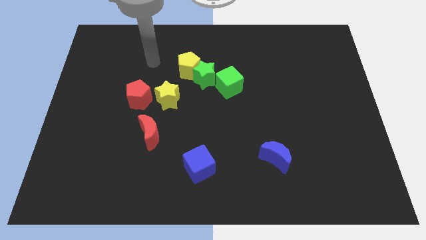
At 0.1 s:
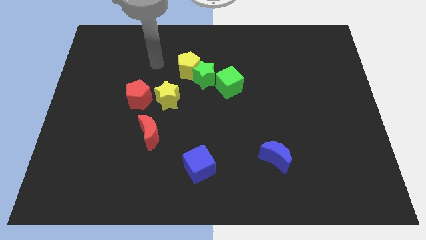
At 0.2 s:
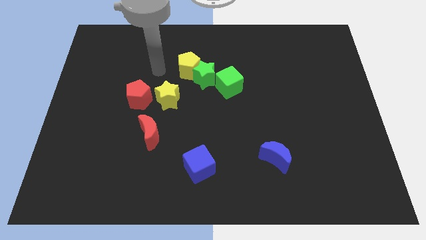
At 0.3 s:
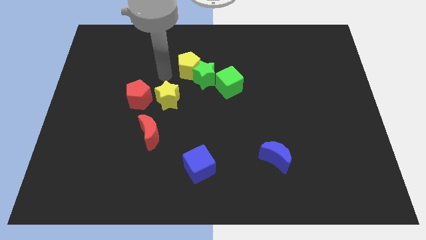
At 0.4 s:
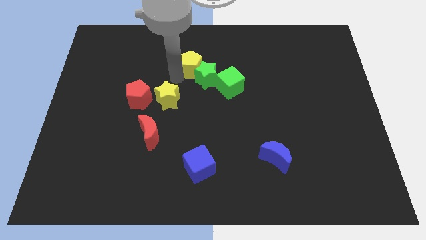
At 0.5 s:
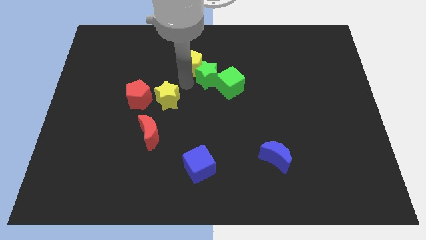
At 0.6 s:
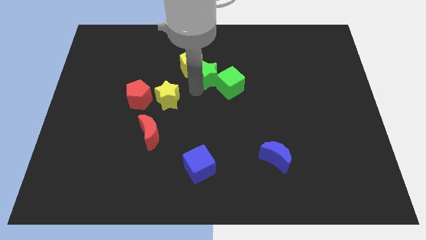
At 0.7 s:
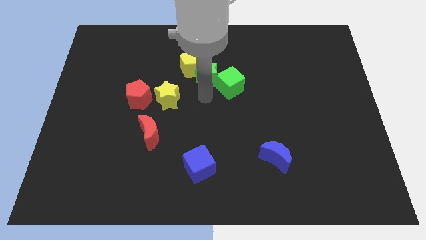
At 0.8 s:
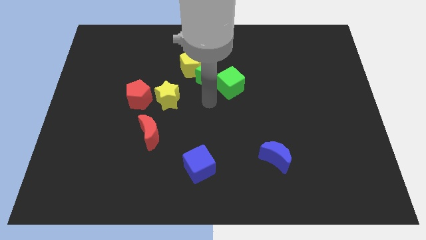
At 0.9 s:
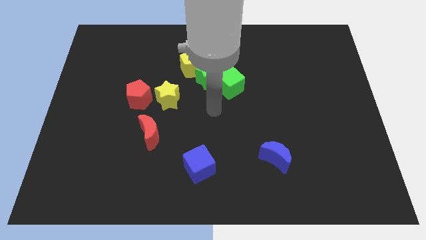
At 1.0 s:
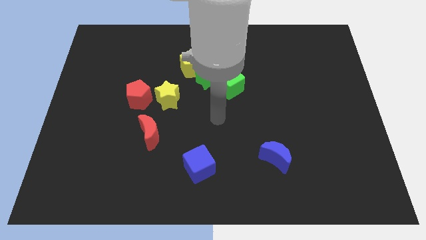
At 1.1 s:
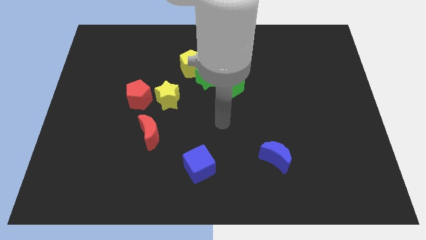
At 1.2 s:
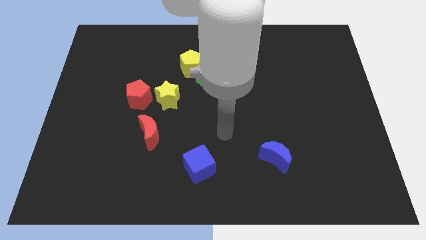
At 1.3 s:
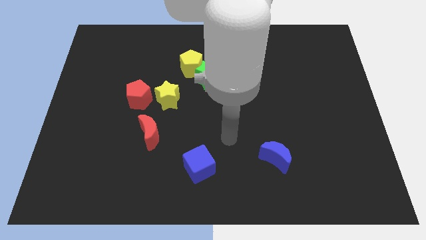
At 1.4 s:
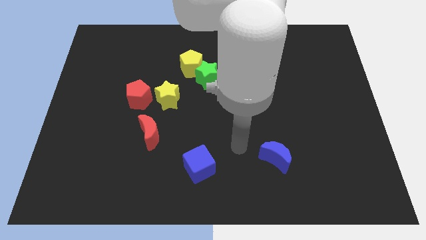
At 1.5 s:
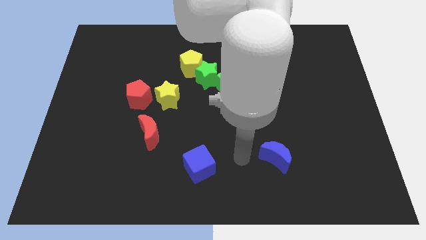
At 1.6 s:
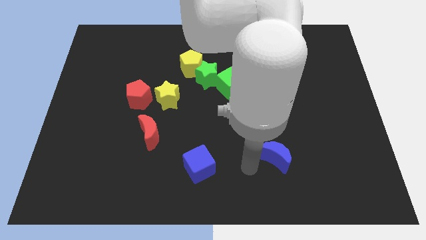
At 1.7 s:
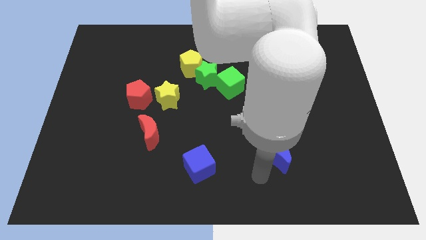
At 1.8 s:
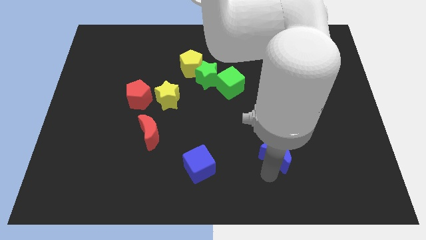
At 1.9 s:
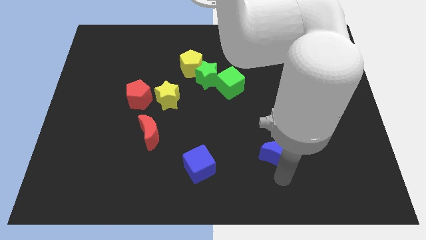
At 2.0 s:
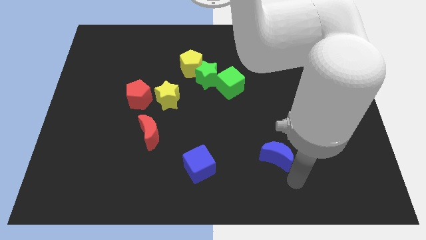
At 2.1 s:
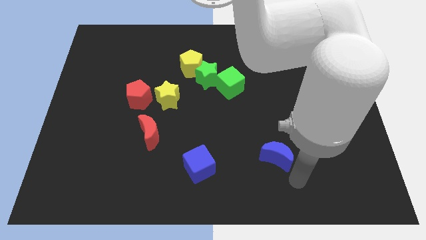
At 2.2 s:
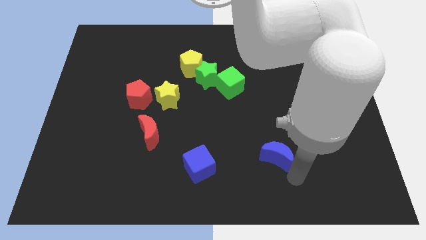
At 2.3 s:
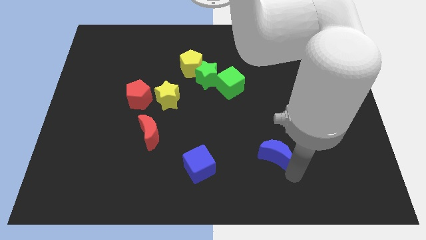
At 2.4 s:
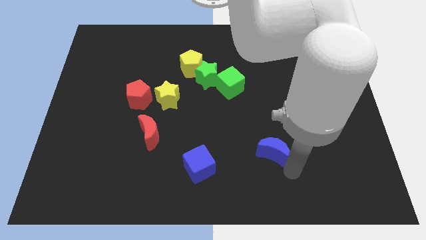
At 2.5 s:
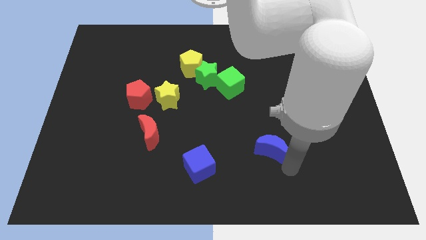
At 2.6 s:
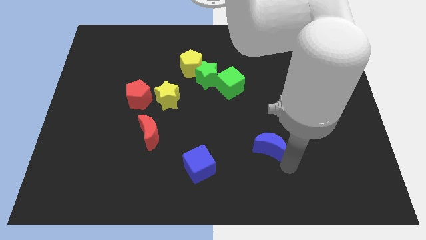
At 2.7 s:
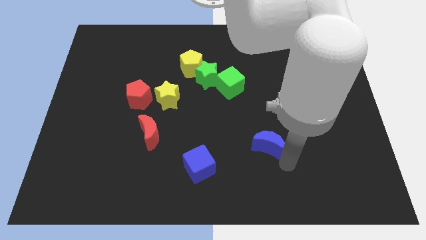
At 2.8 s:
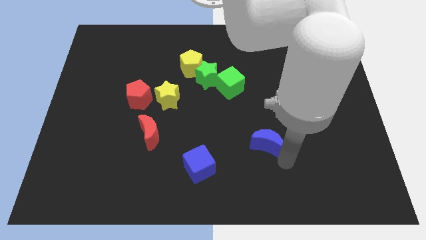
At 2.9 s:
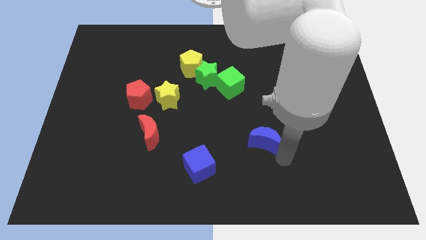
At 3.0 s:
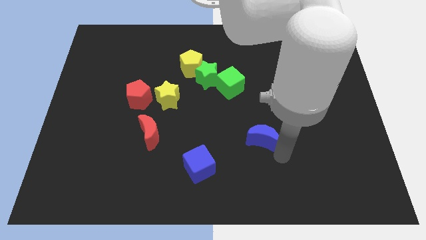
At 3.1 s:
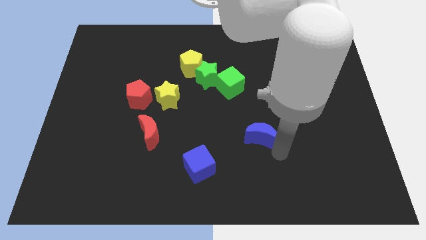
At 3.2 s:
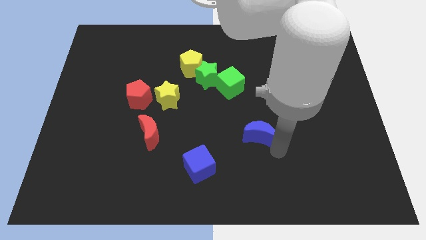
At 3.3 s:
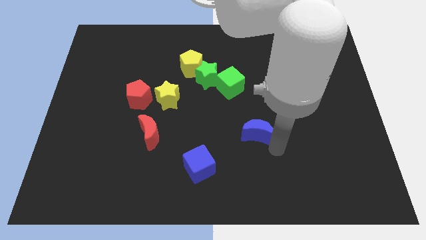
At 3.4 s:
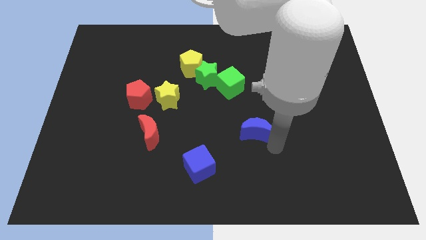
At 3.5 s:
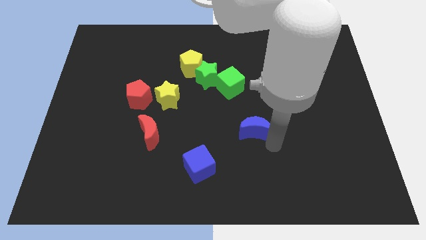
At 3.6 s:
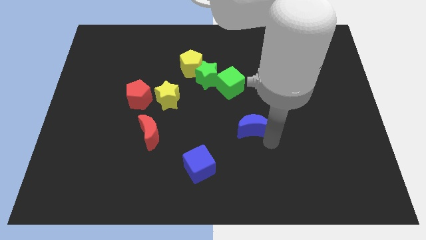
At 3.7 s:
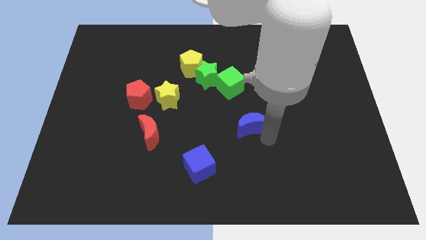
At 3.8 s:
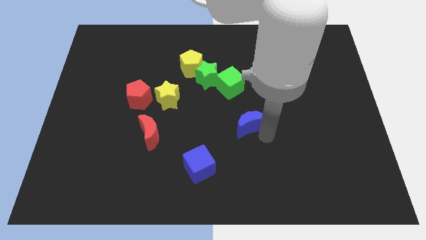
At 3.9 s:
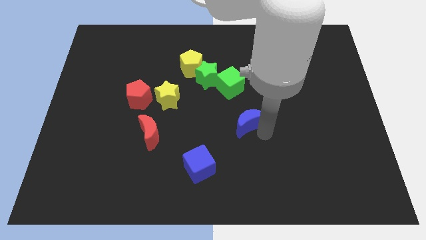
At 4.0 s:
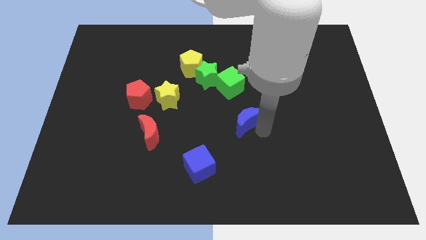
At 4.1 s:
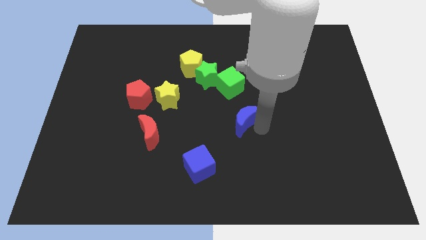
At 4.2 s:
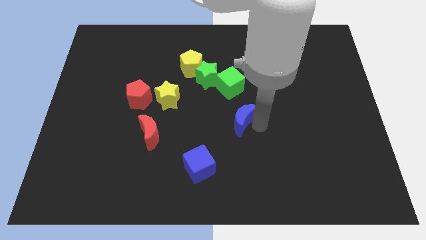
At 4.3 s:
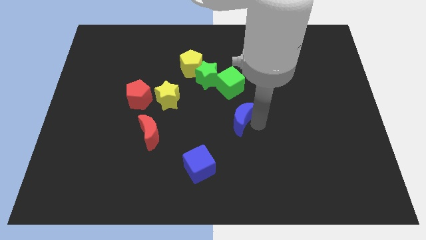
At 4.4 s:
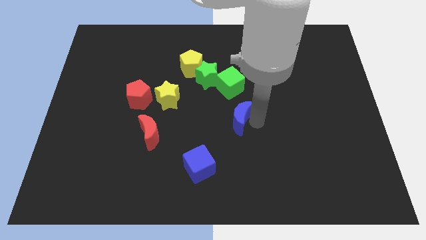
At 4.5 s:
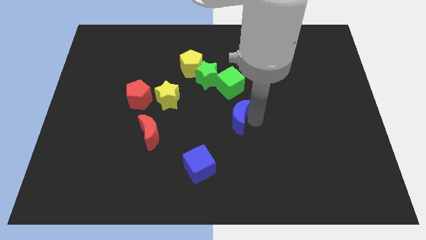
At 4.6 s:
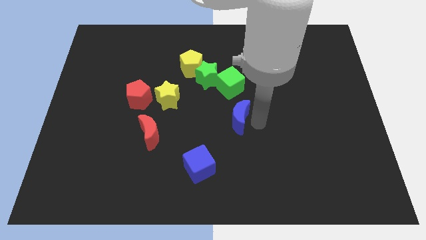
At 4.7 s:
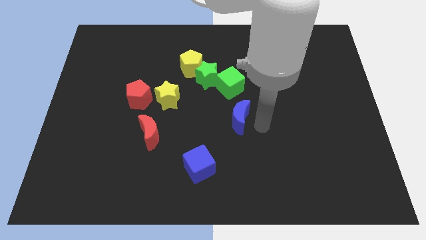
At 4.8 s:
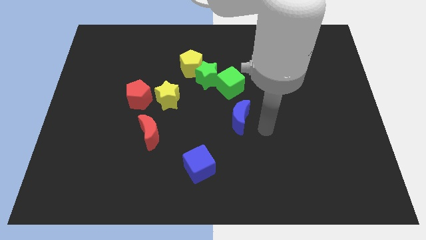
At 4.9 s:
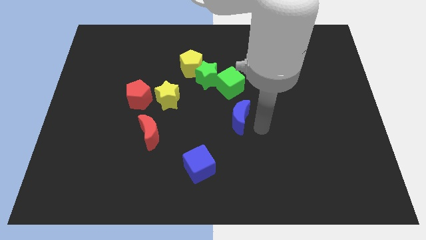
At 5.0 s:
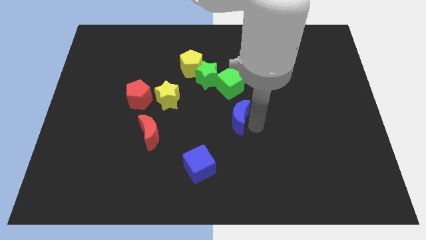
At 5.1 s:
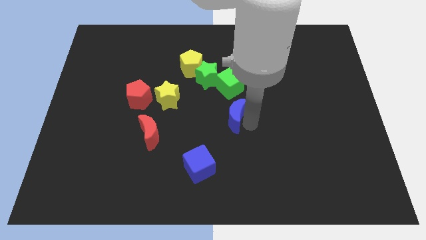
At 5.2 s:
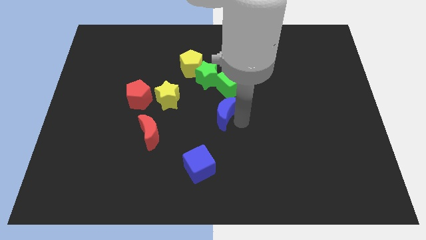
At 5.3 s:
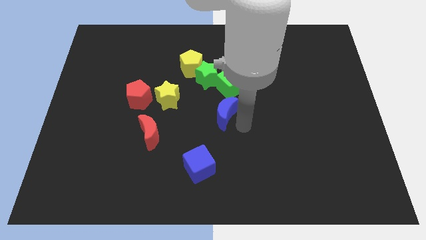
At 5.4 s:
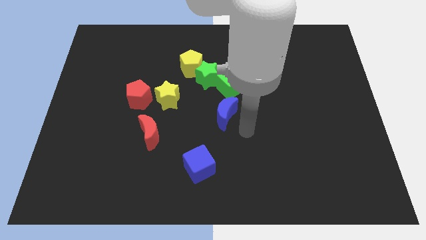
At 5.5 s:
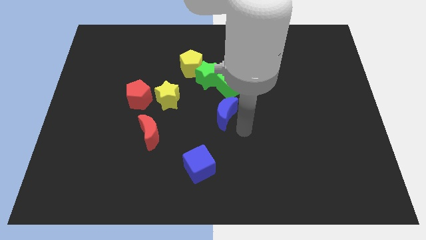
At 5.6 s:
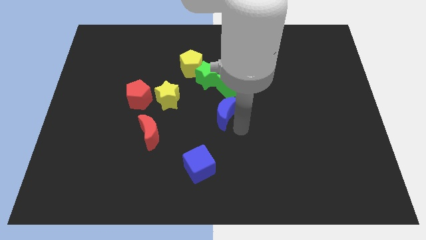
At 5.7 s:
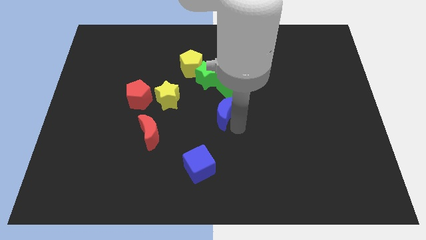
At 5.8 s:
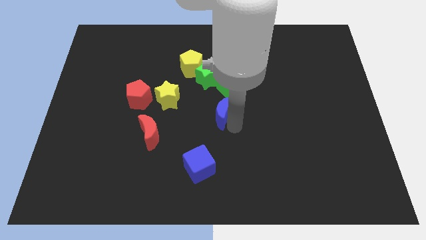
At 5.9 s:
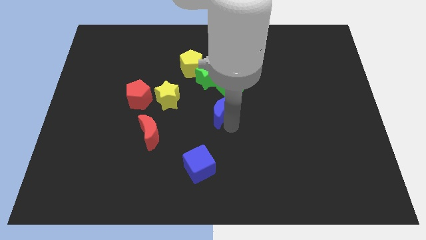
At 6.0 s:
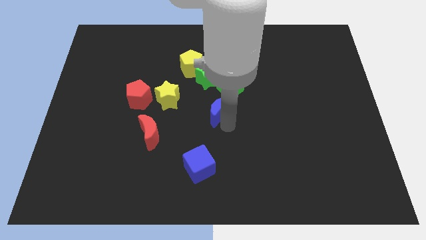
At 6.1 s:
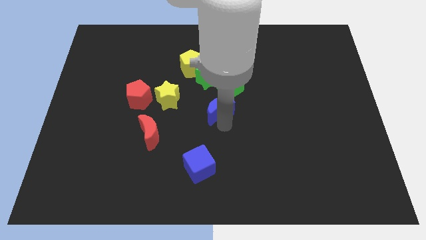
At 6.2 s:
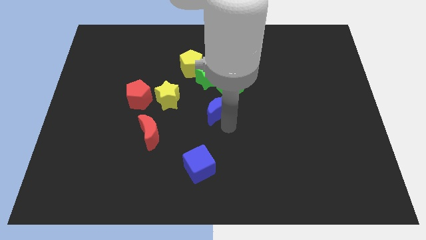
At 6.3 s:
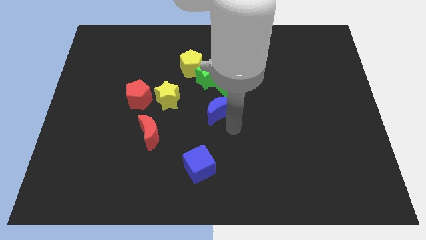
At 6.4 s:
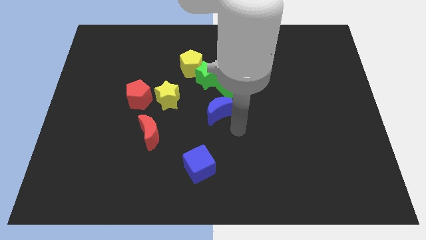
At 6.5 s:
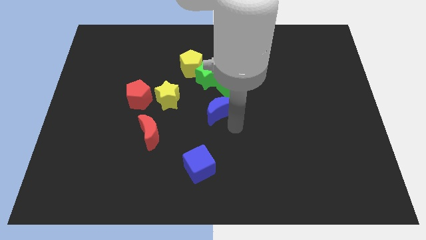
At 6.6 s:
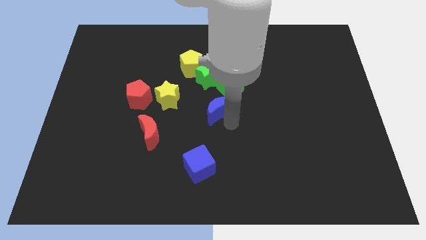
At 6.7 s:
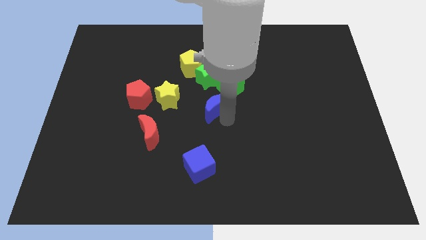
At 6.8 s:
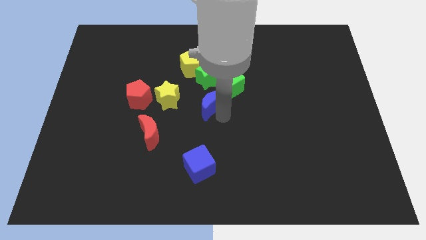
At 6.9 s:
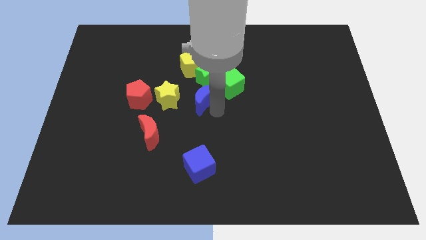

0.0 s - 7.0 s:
push the blue moon up and left diagonally

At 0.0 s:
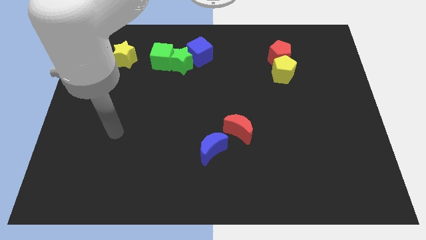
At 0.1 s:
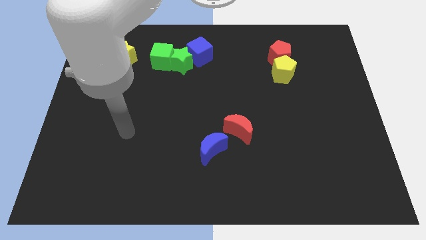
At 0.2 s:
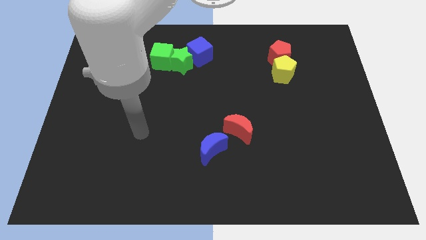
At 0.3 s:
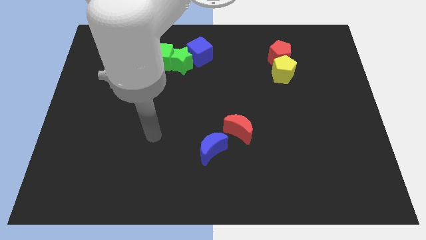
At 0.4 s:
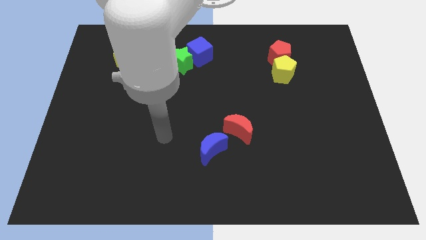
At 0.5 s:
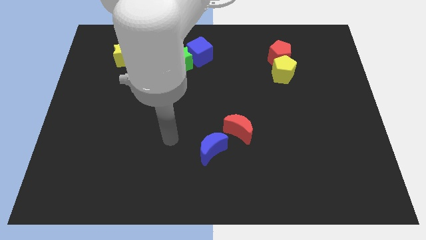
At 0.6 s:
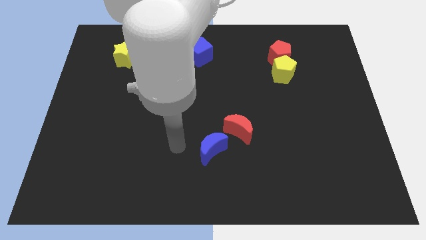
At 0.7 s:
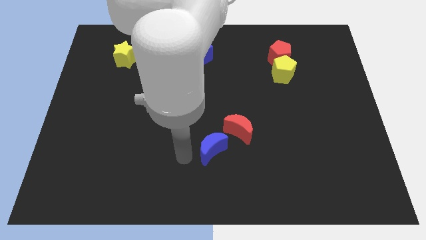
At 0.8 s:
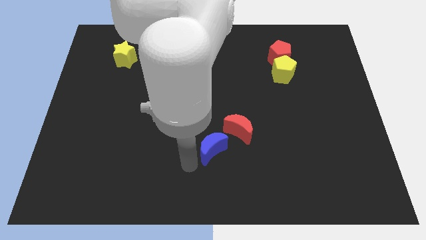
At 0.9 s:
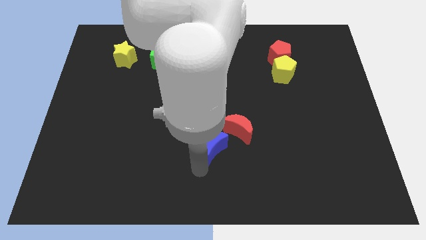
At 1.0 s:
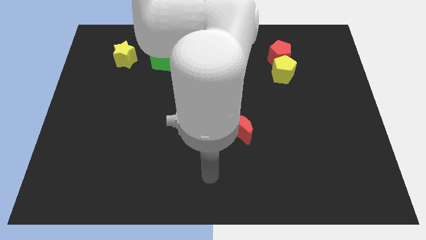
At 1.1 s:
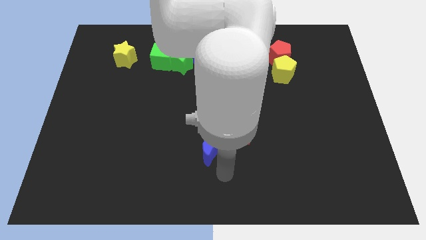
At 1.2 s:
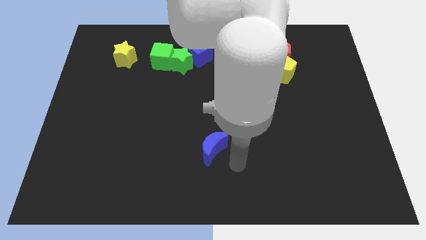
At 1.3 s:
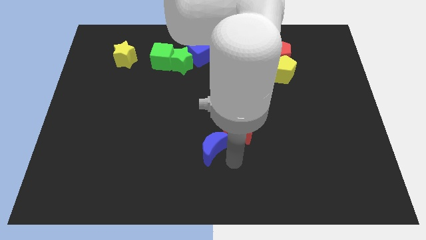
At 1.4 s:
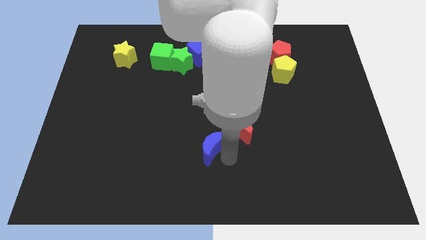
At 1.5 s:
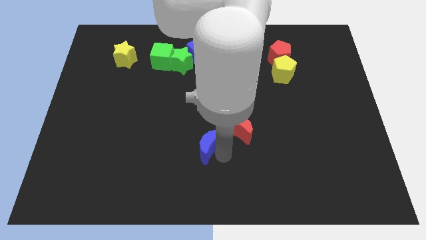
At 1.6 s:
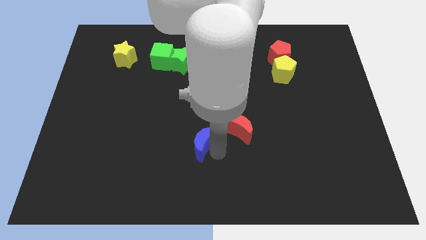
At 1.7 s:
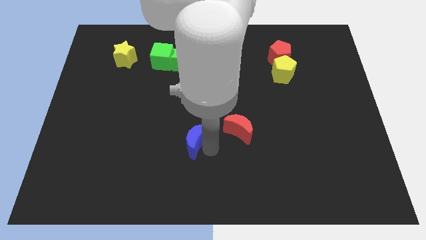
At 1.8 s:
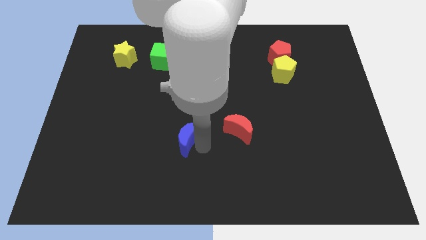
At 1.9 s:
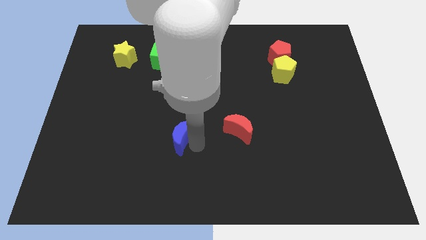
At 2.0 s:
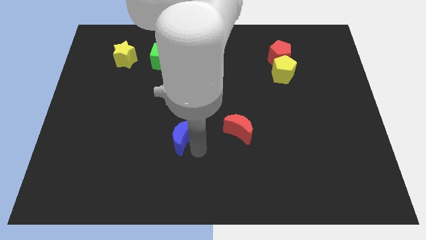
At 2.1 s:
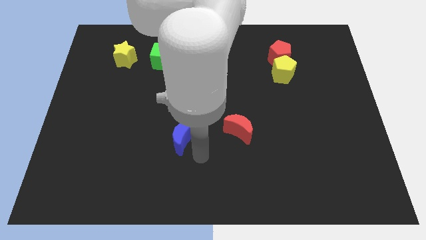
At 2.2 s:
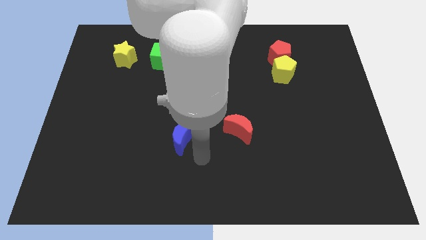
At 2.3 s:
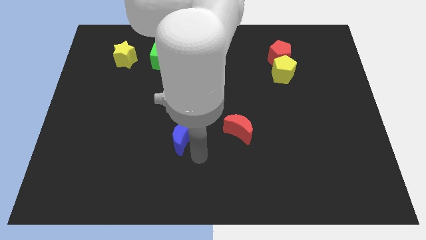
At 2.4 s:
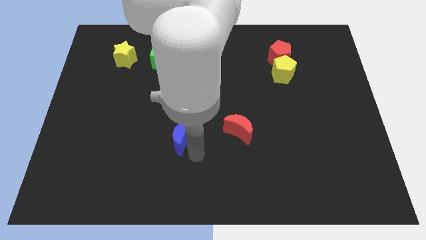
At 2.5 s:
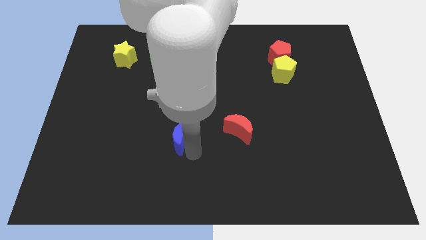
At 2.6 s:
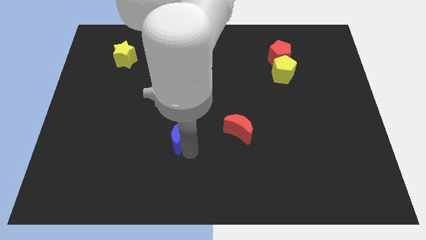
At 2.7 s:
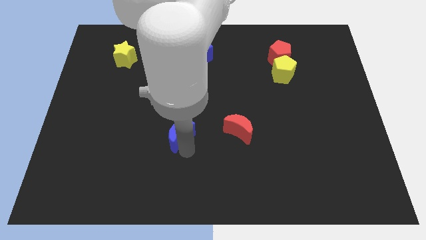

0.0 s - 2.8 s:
slide the blue moon upwards and left diagonally somewhat
